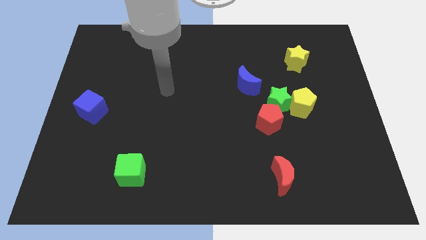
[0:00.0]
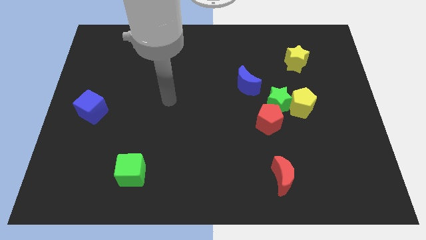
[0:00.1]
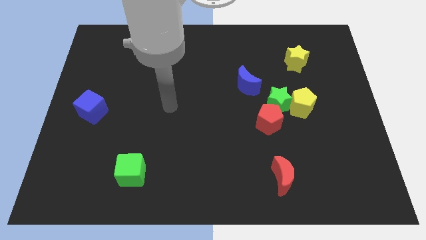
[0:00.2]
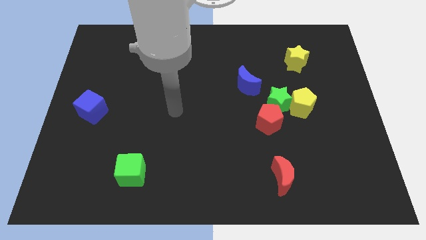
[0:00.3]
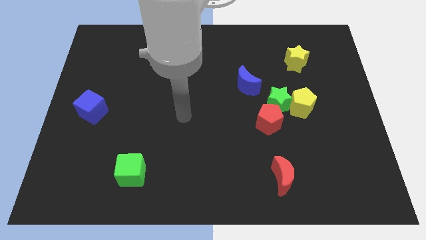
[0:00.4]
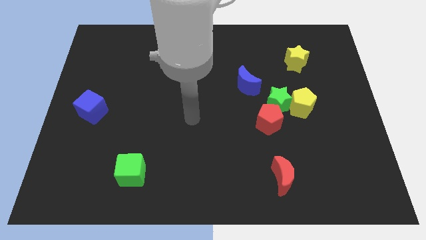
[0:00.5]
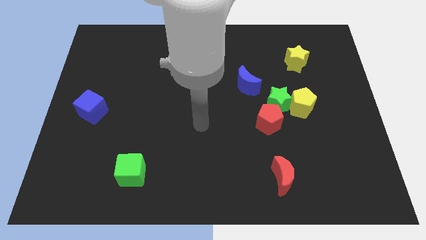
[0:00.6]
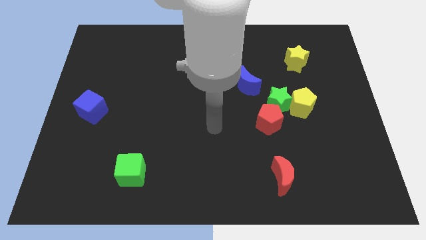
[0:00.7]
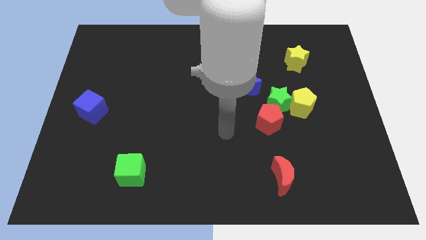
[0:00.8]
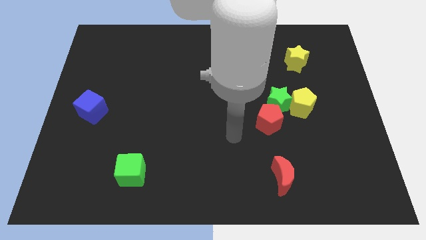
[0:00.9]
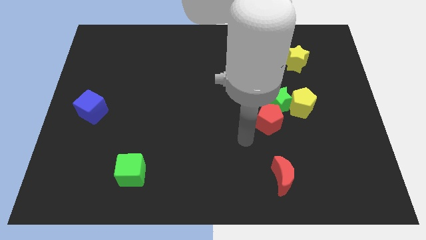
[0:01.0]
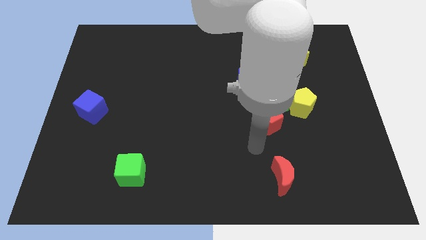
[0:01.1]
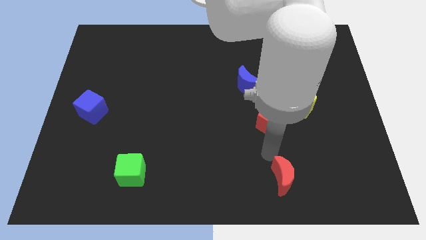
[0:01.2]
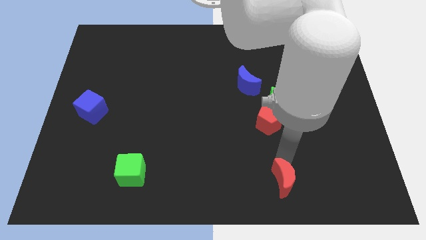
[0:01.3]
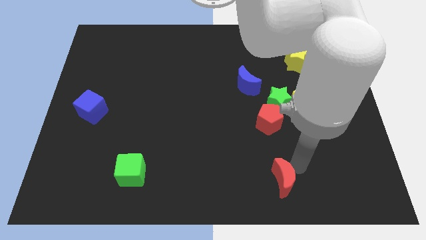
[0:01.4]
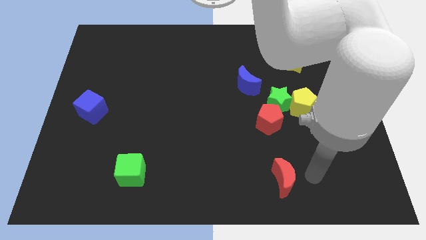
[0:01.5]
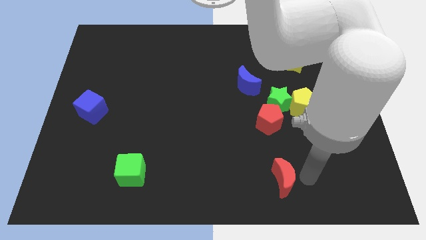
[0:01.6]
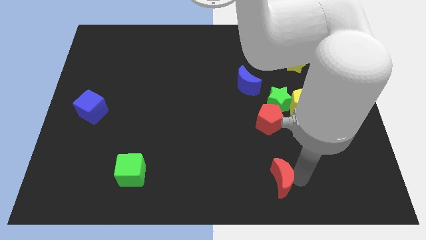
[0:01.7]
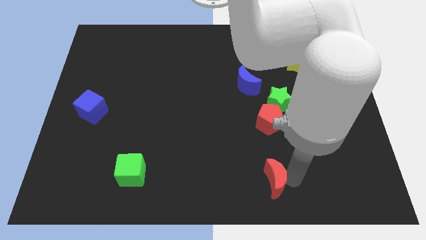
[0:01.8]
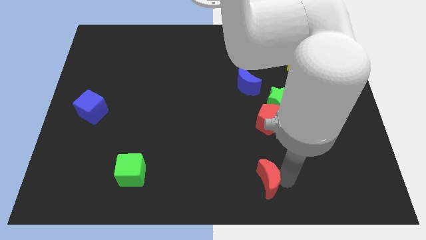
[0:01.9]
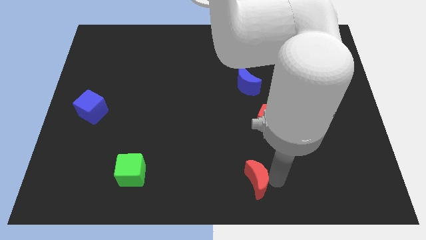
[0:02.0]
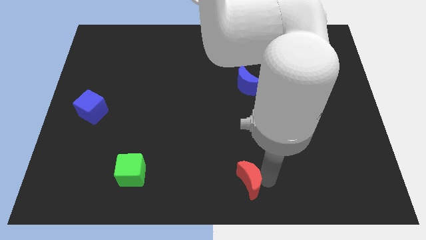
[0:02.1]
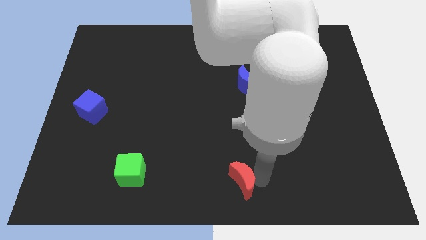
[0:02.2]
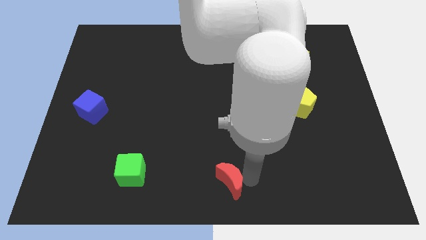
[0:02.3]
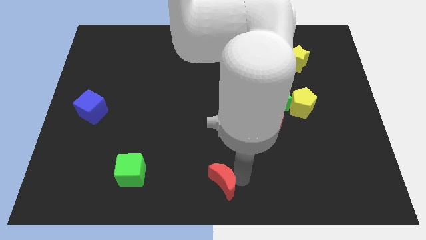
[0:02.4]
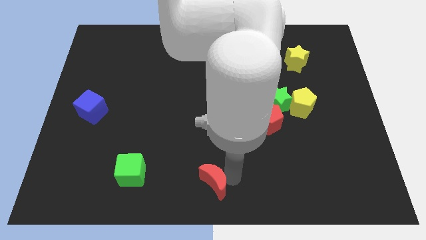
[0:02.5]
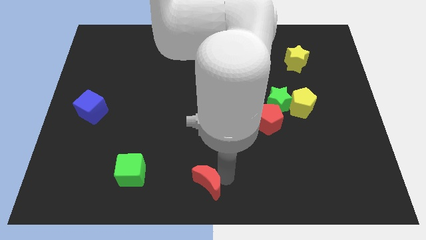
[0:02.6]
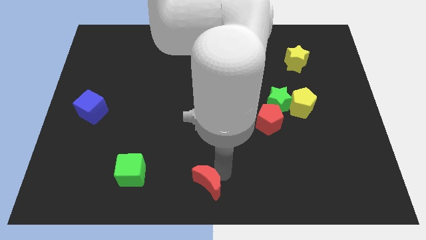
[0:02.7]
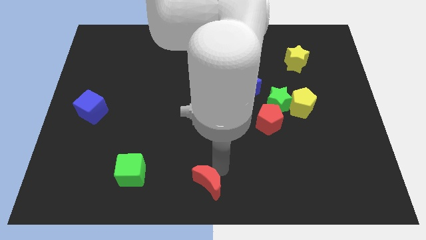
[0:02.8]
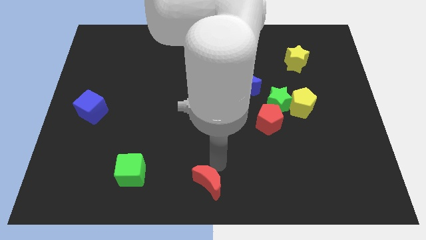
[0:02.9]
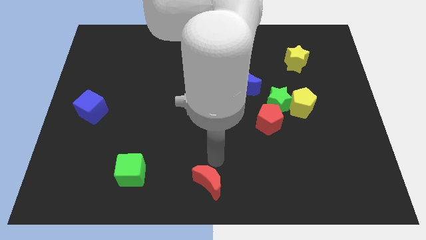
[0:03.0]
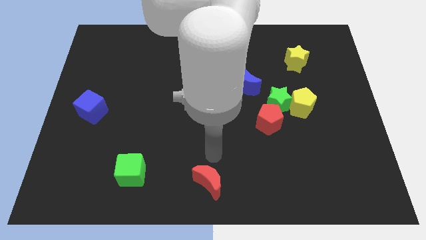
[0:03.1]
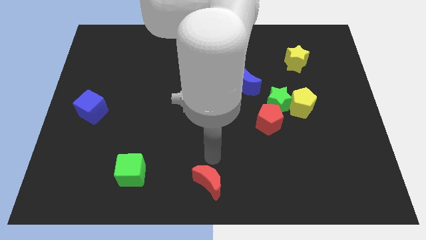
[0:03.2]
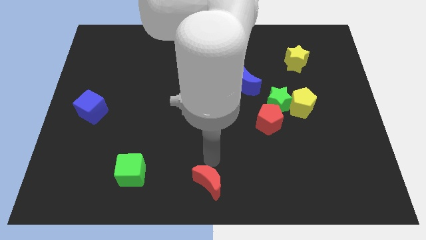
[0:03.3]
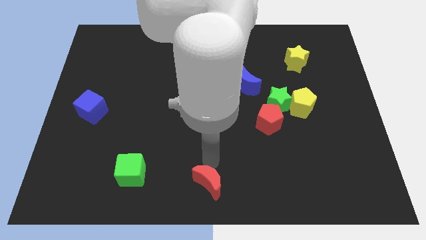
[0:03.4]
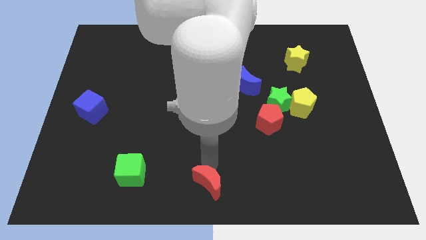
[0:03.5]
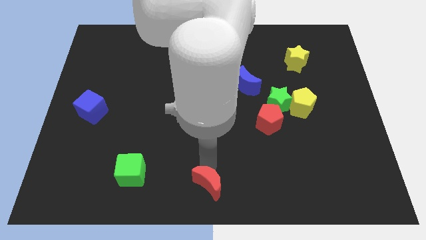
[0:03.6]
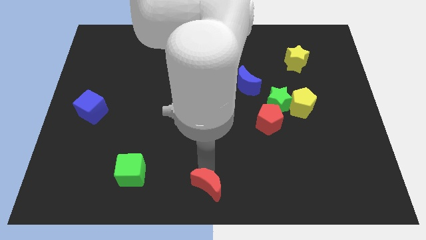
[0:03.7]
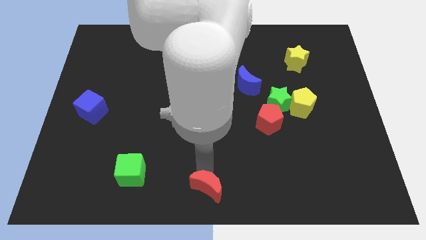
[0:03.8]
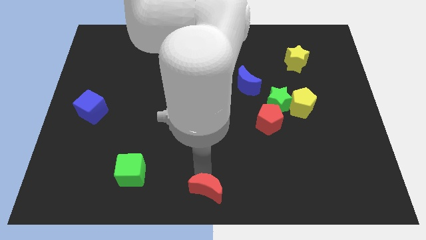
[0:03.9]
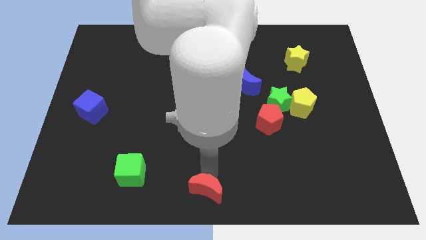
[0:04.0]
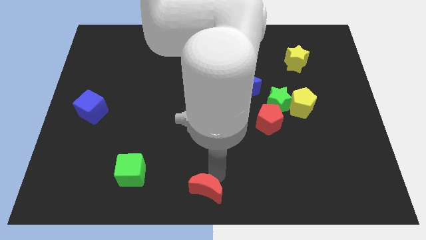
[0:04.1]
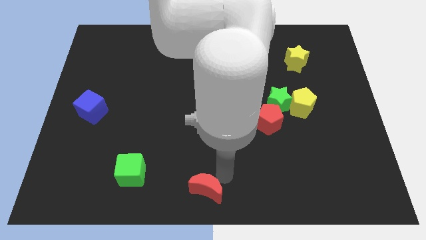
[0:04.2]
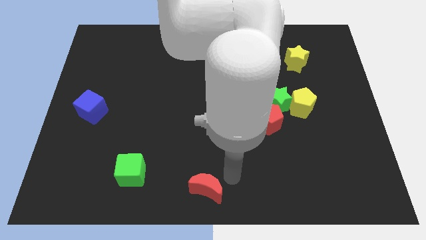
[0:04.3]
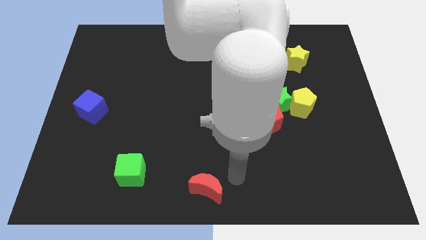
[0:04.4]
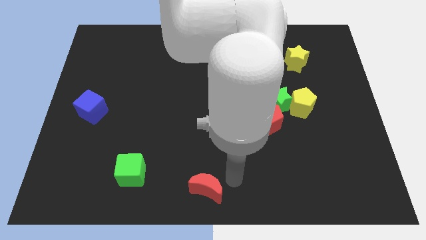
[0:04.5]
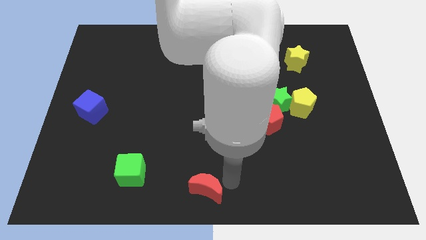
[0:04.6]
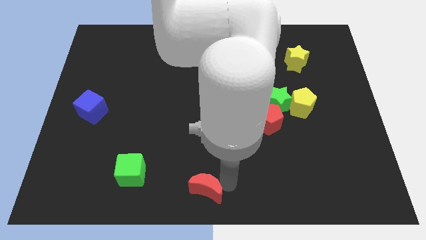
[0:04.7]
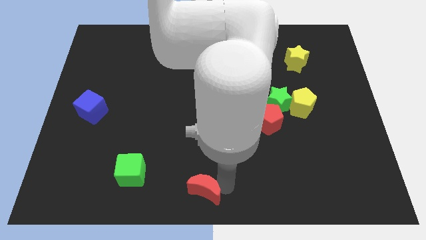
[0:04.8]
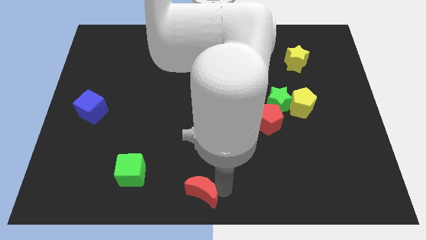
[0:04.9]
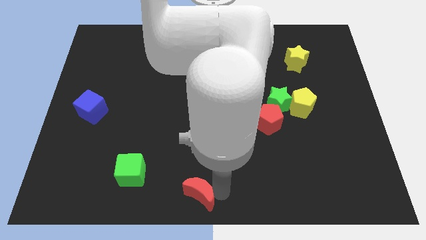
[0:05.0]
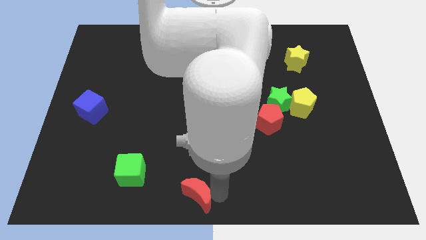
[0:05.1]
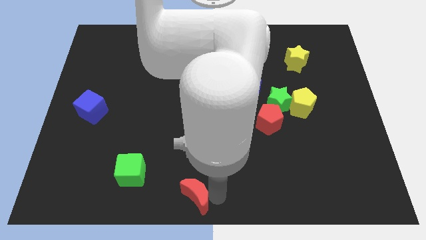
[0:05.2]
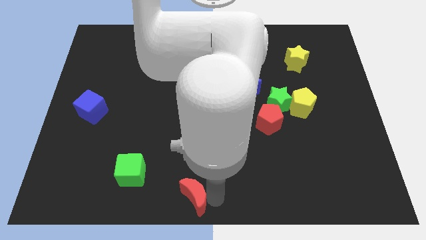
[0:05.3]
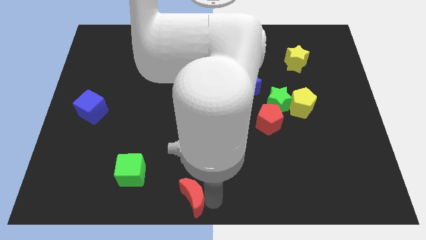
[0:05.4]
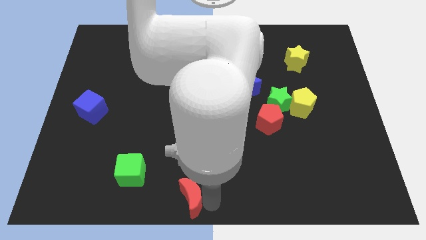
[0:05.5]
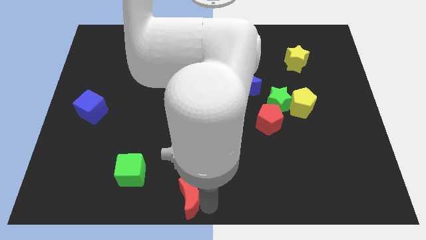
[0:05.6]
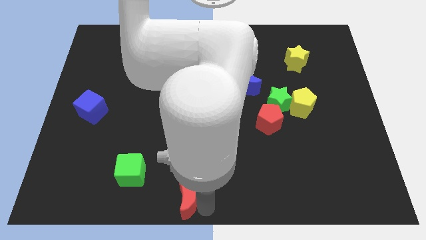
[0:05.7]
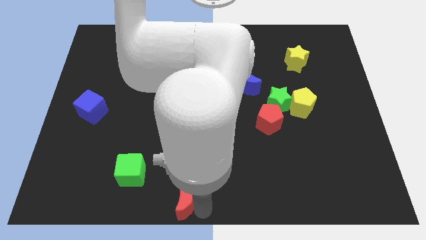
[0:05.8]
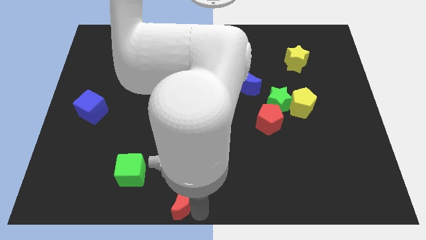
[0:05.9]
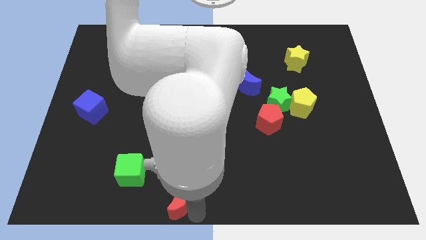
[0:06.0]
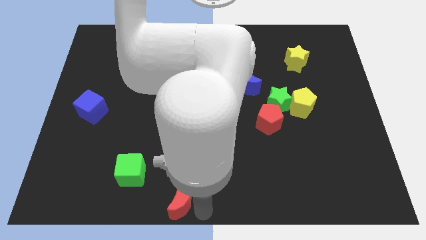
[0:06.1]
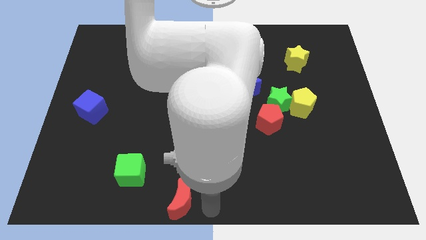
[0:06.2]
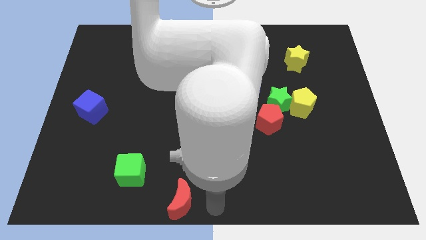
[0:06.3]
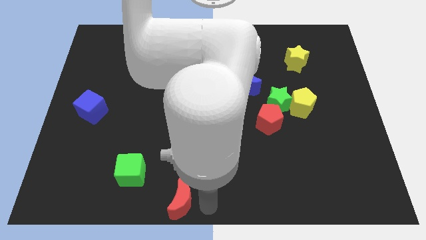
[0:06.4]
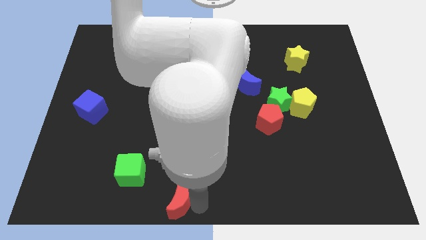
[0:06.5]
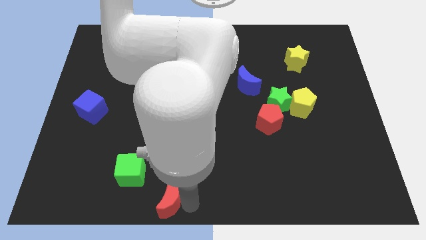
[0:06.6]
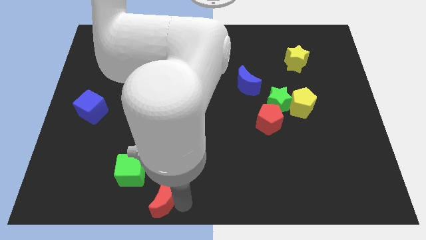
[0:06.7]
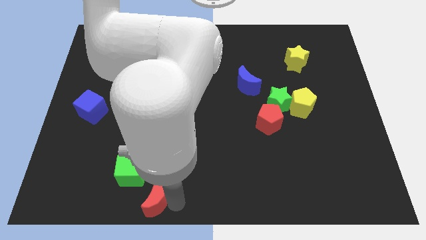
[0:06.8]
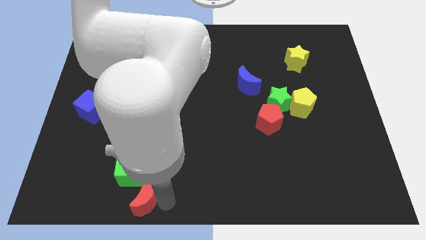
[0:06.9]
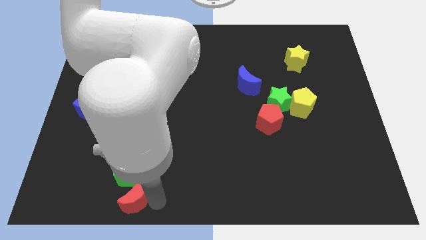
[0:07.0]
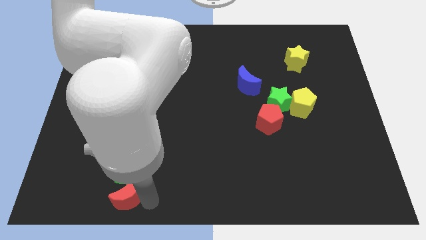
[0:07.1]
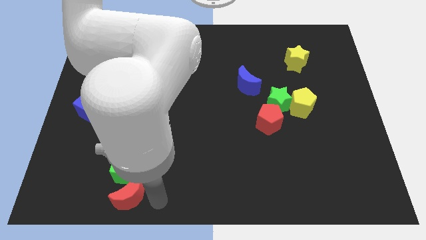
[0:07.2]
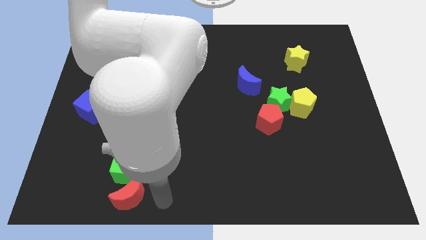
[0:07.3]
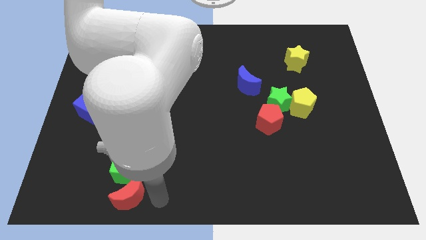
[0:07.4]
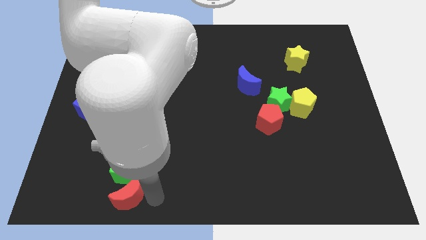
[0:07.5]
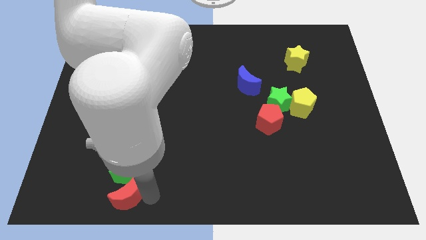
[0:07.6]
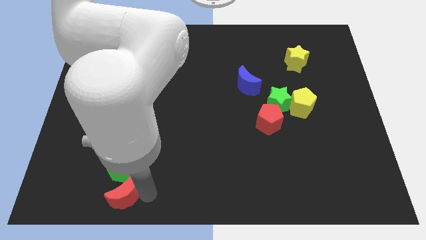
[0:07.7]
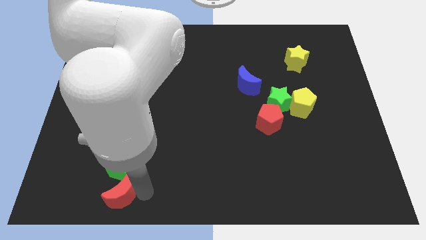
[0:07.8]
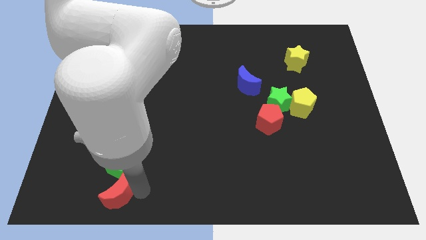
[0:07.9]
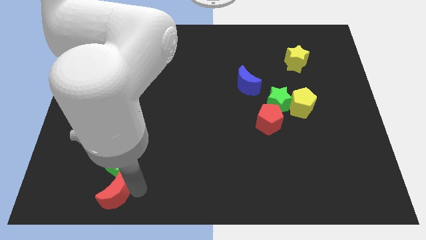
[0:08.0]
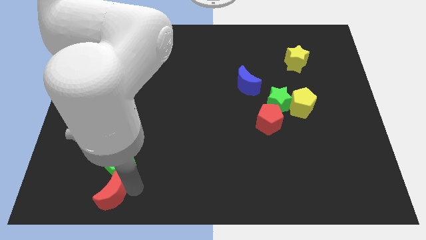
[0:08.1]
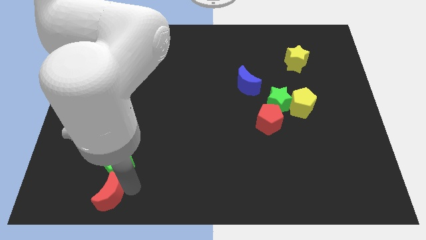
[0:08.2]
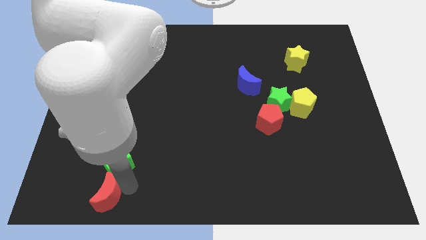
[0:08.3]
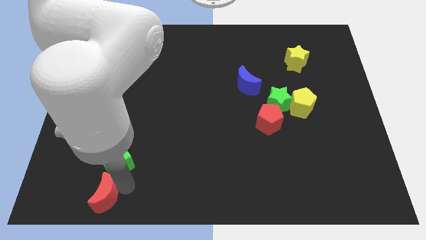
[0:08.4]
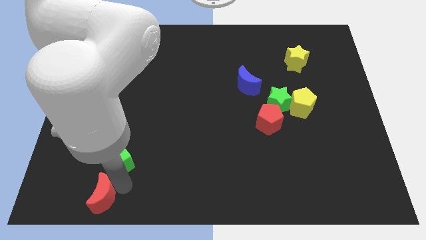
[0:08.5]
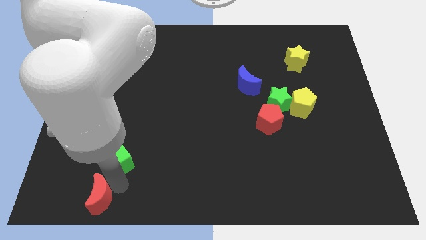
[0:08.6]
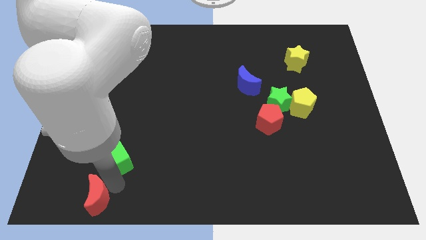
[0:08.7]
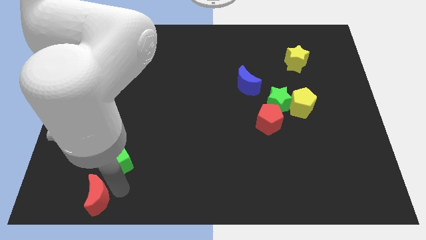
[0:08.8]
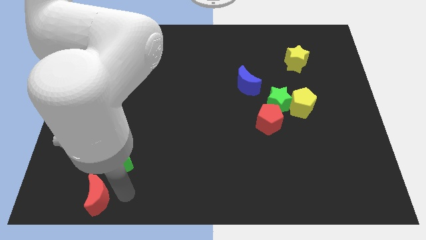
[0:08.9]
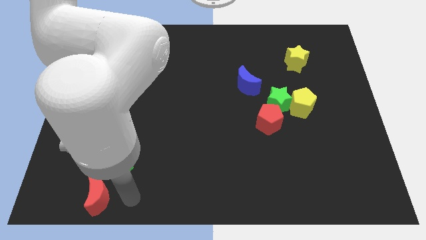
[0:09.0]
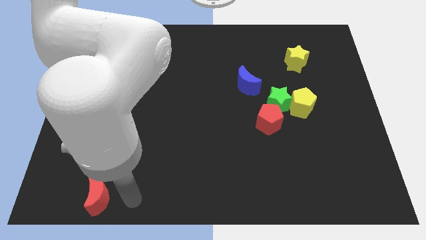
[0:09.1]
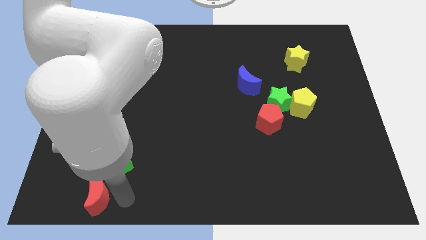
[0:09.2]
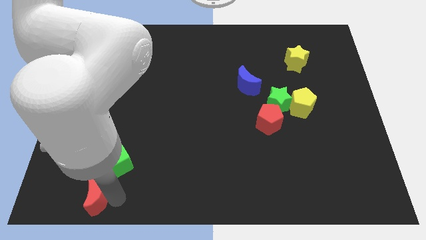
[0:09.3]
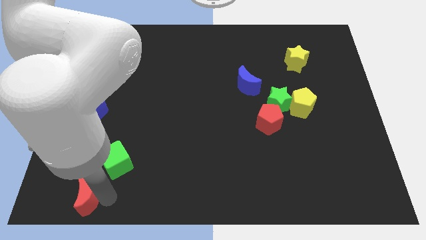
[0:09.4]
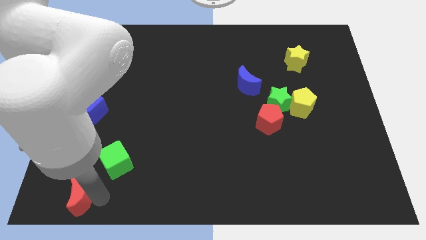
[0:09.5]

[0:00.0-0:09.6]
slide the red moon to the bottom left
